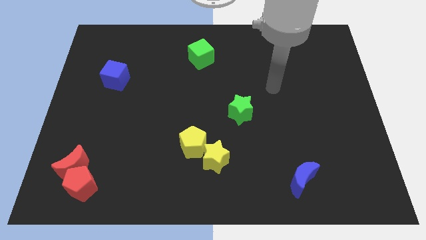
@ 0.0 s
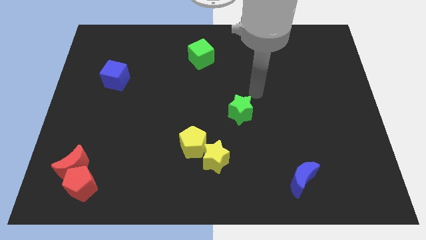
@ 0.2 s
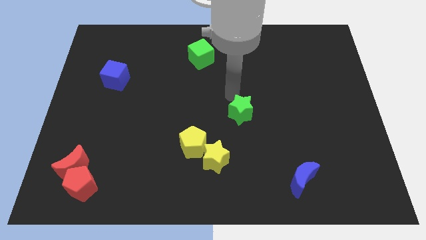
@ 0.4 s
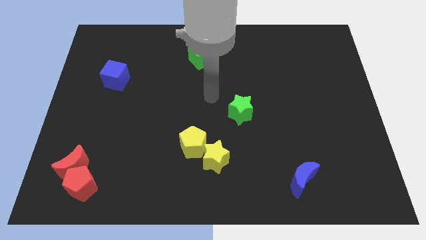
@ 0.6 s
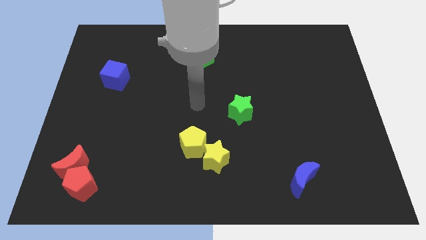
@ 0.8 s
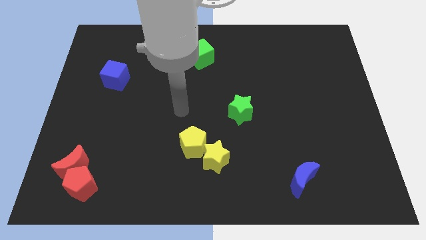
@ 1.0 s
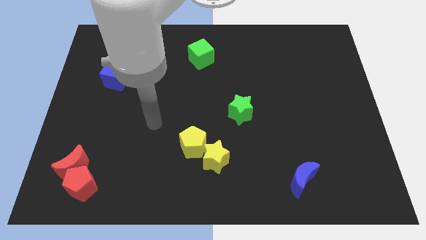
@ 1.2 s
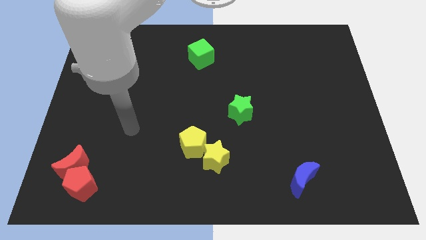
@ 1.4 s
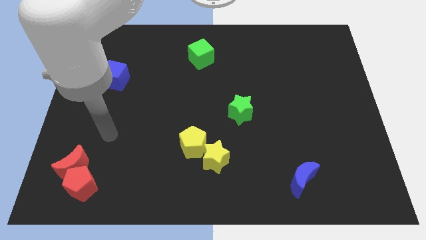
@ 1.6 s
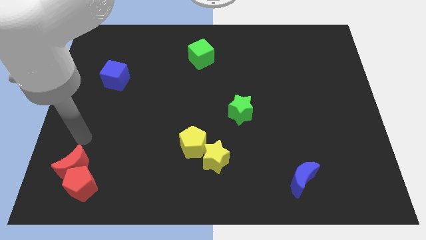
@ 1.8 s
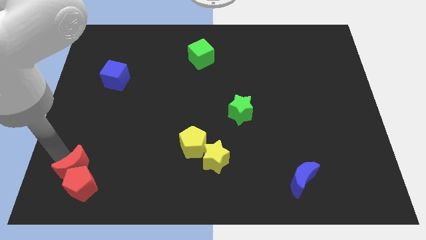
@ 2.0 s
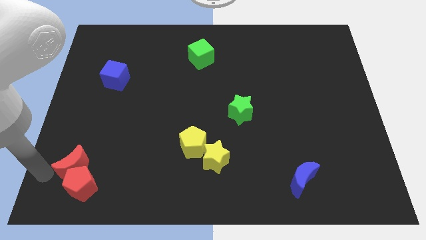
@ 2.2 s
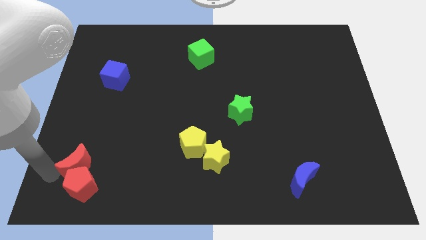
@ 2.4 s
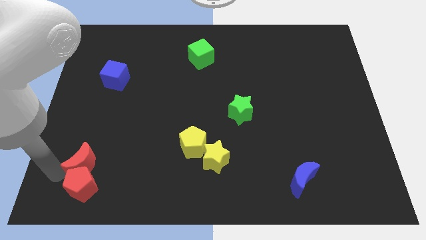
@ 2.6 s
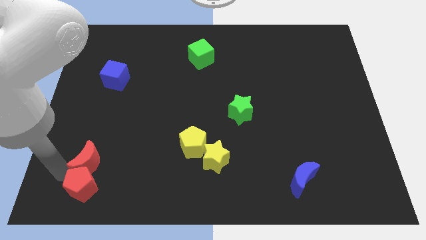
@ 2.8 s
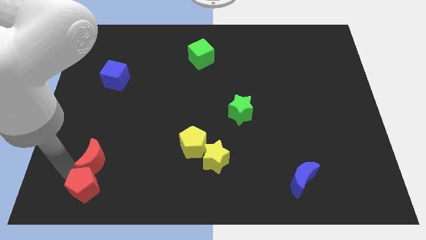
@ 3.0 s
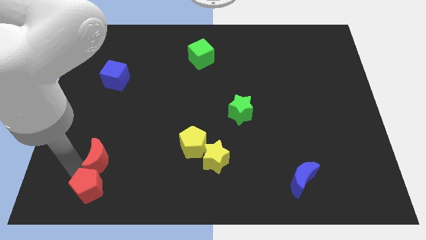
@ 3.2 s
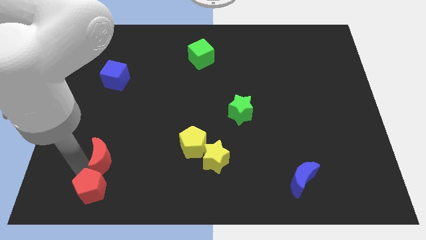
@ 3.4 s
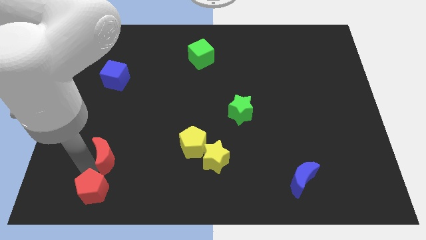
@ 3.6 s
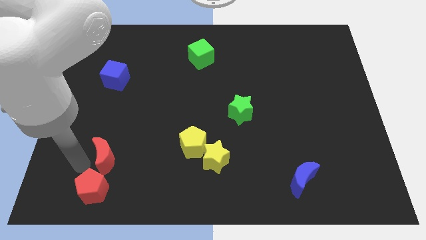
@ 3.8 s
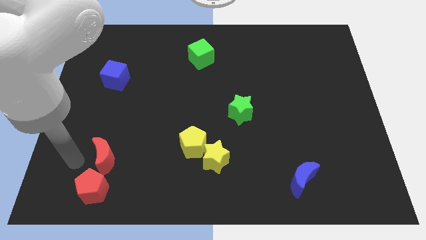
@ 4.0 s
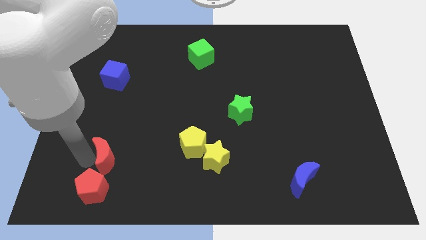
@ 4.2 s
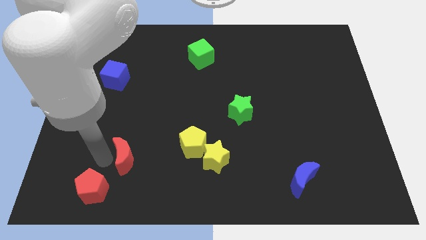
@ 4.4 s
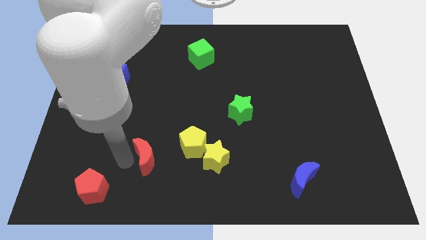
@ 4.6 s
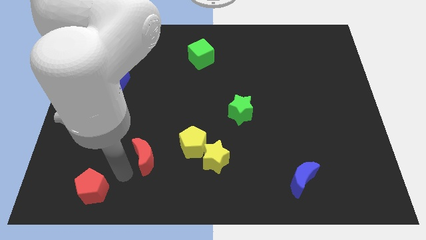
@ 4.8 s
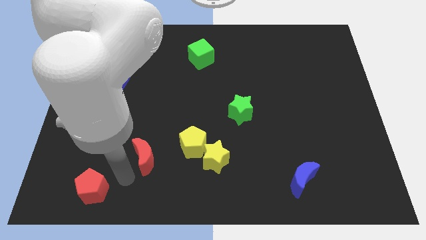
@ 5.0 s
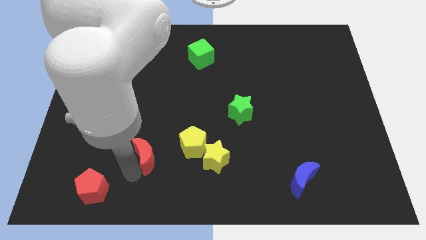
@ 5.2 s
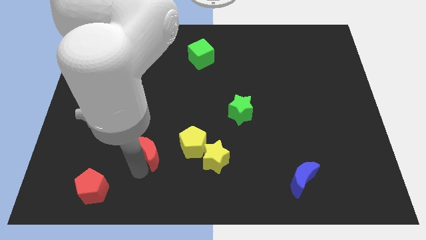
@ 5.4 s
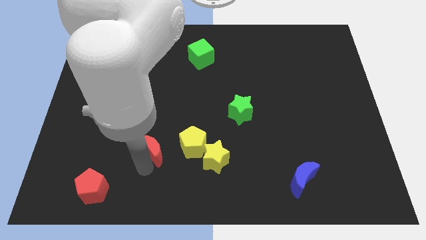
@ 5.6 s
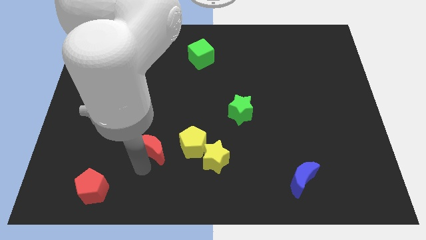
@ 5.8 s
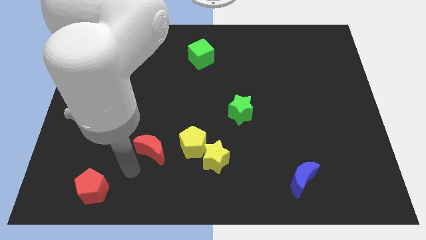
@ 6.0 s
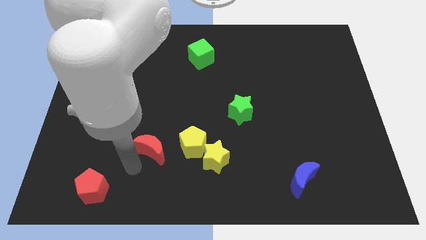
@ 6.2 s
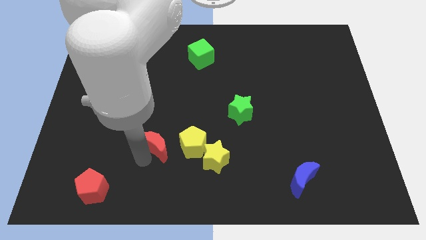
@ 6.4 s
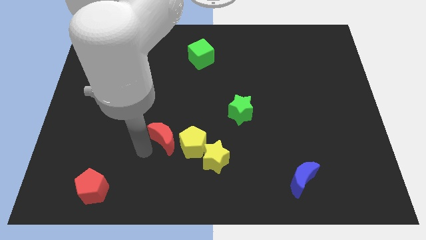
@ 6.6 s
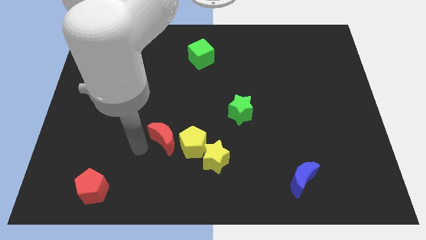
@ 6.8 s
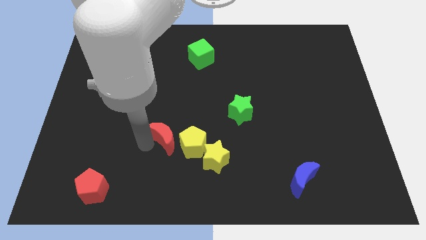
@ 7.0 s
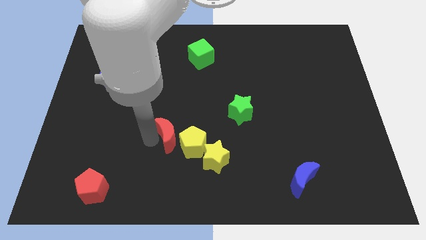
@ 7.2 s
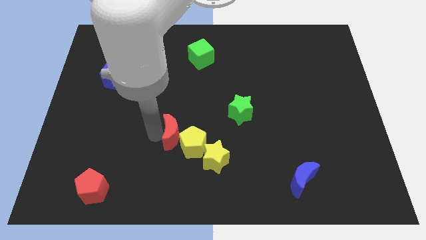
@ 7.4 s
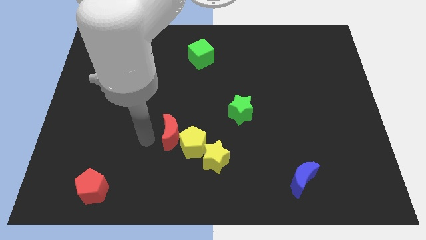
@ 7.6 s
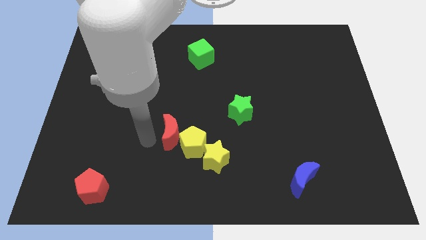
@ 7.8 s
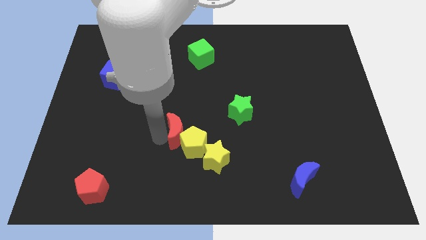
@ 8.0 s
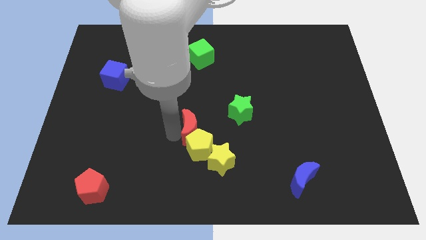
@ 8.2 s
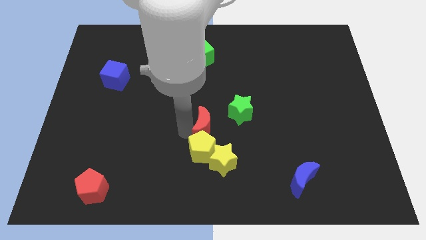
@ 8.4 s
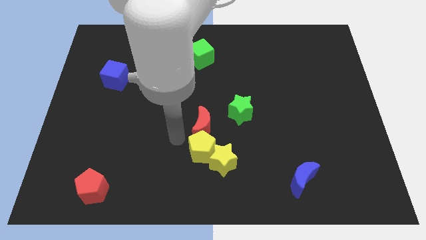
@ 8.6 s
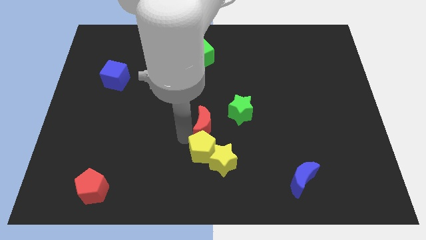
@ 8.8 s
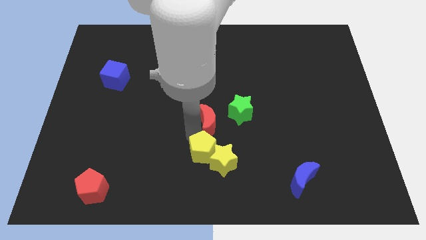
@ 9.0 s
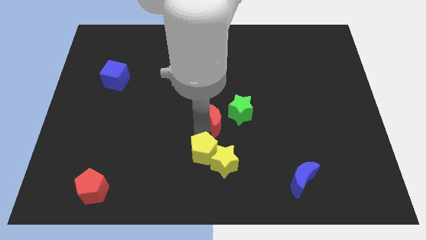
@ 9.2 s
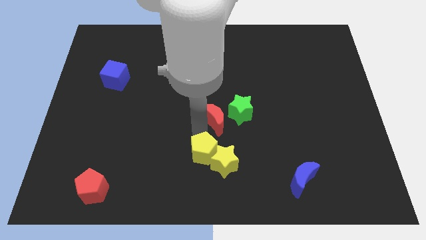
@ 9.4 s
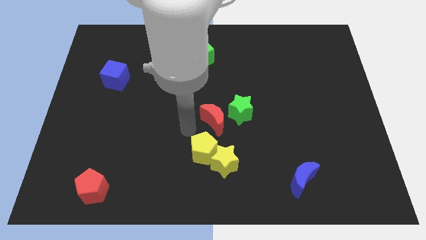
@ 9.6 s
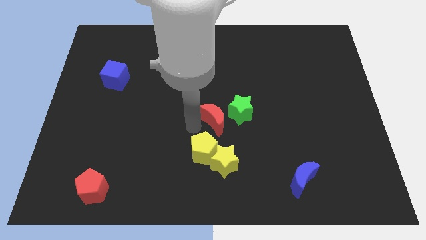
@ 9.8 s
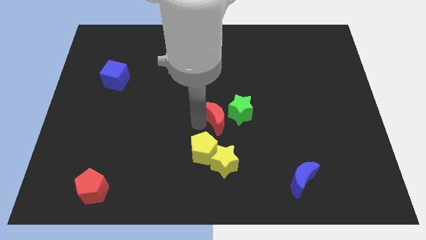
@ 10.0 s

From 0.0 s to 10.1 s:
push the red moon towards the green star

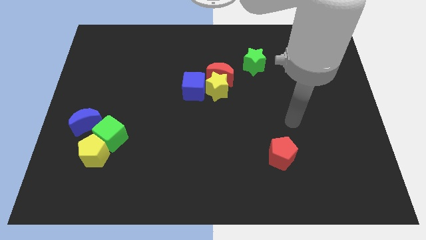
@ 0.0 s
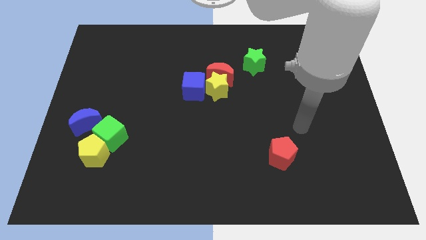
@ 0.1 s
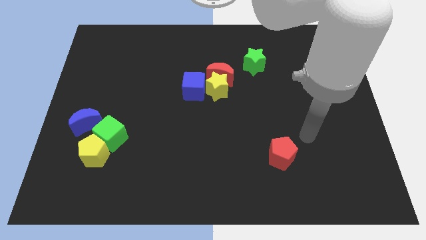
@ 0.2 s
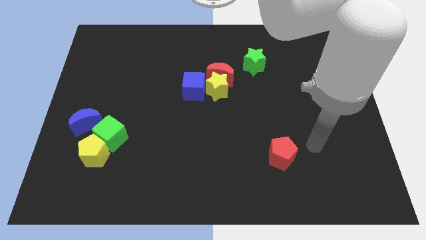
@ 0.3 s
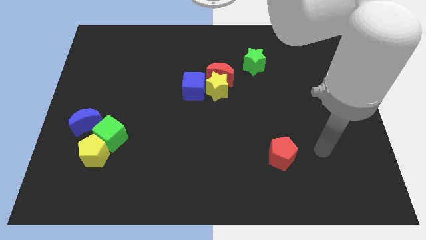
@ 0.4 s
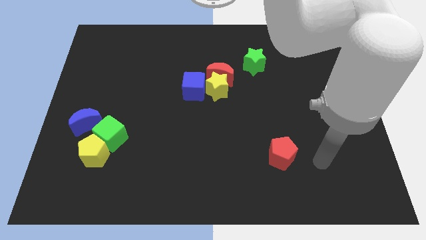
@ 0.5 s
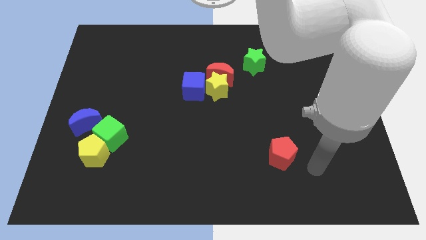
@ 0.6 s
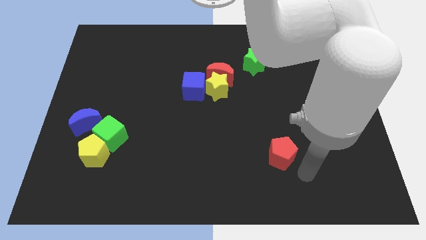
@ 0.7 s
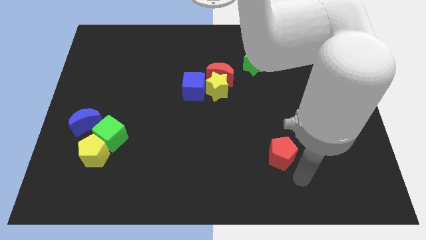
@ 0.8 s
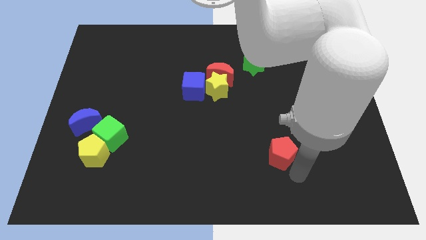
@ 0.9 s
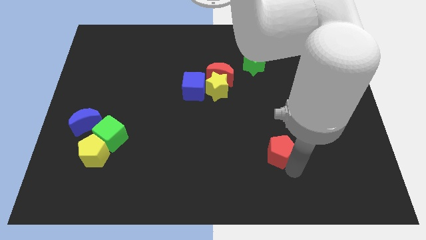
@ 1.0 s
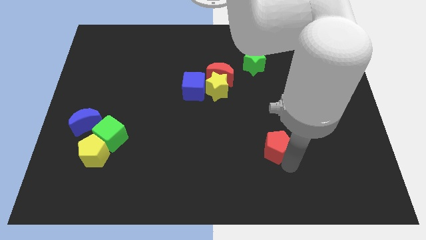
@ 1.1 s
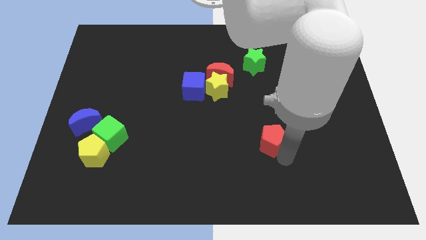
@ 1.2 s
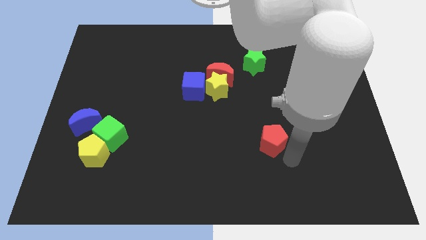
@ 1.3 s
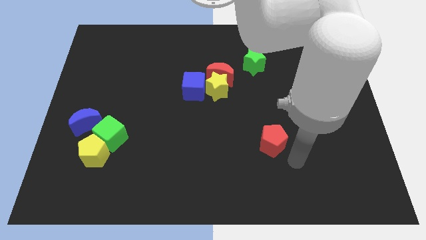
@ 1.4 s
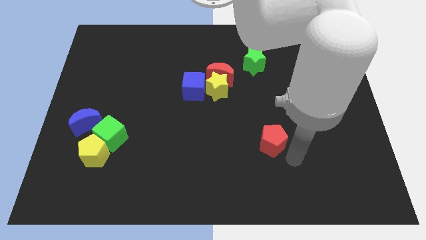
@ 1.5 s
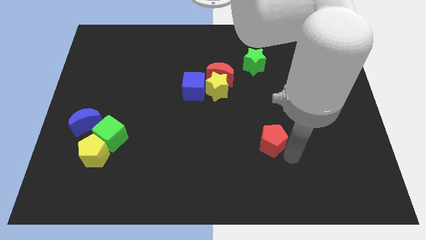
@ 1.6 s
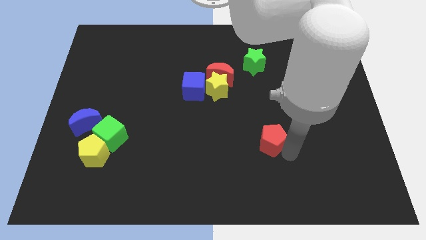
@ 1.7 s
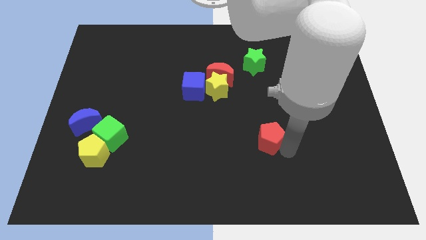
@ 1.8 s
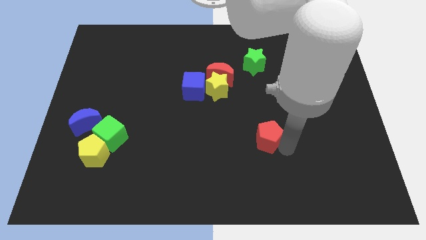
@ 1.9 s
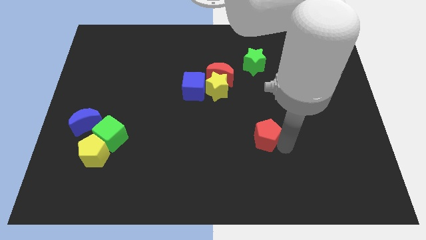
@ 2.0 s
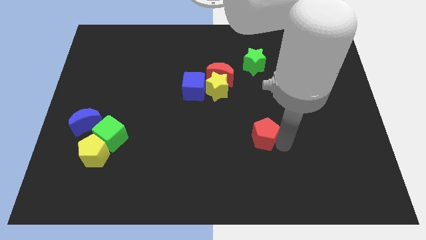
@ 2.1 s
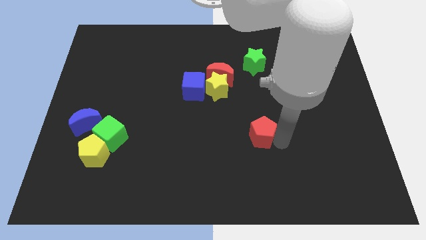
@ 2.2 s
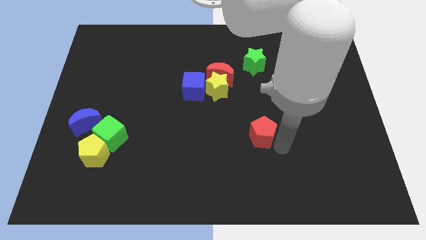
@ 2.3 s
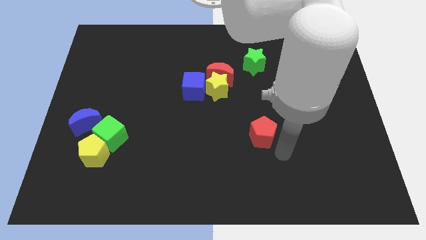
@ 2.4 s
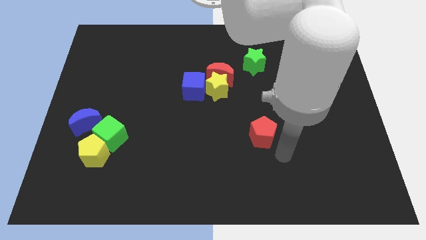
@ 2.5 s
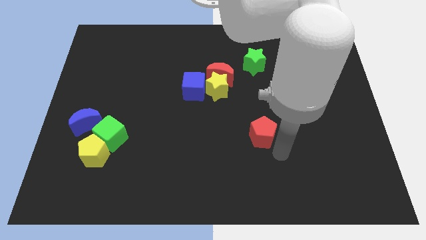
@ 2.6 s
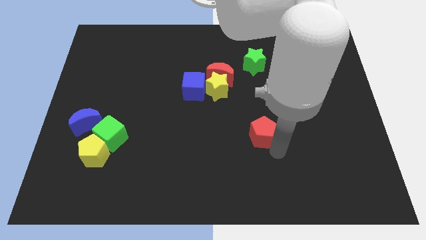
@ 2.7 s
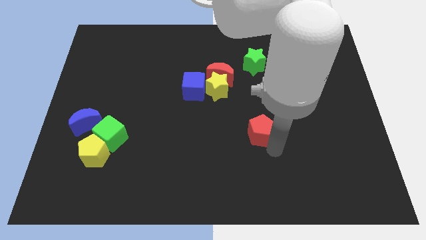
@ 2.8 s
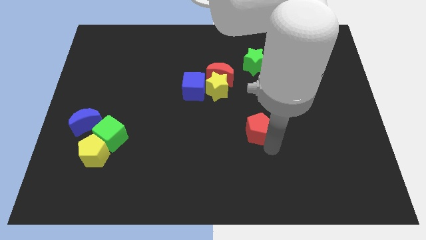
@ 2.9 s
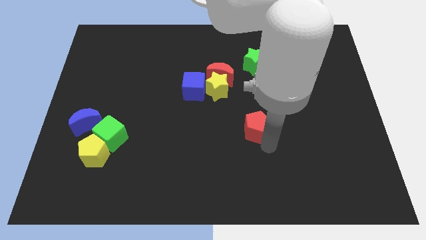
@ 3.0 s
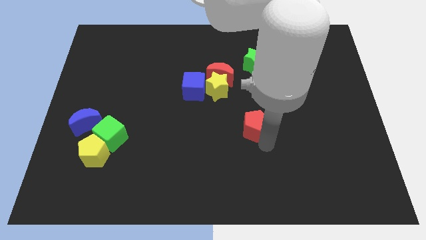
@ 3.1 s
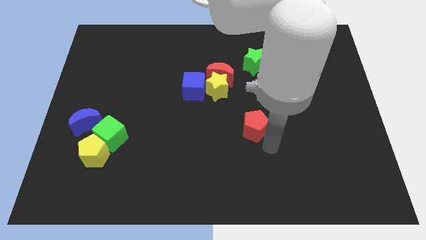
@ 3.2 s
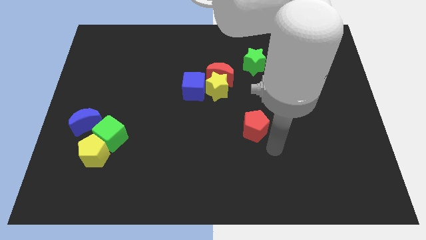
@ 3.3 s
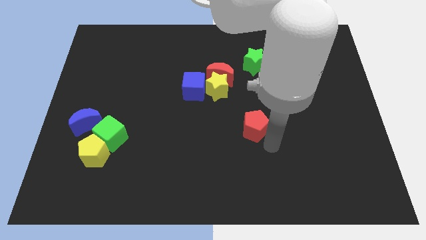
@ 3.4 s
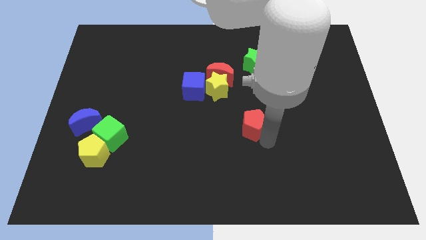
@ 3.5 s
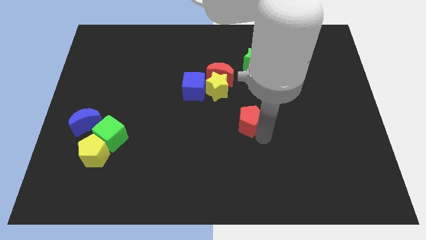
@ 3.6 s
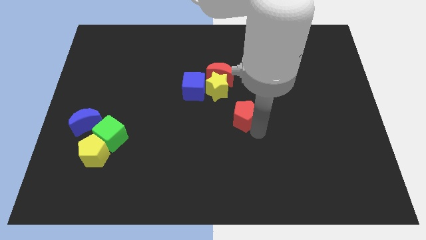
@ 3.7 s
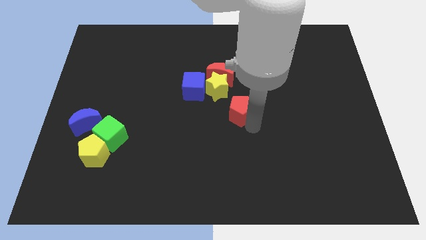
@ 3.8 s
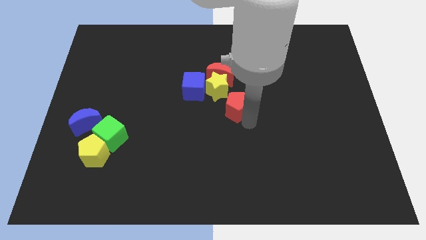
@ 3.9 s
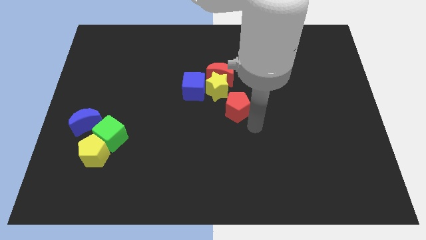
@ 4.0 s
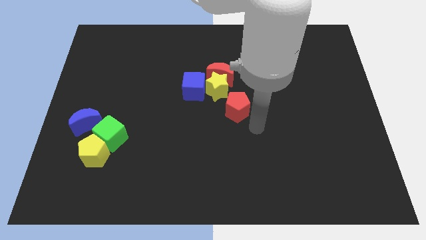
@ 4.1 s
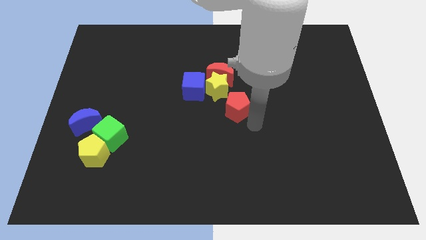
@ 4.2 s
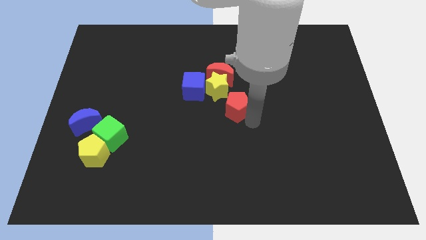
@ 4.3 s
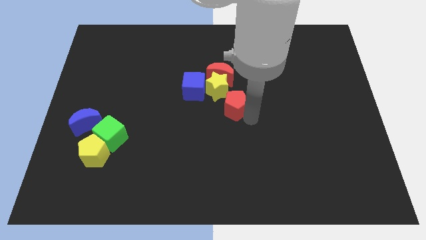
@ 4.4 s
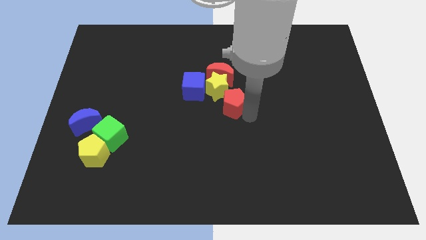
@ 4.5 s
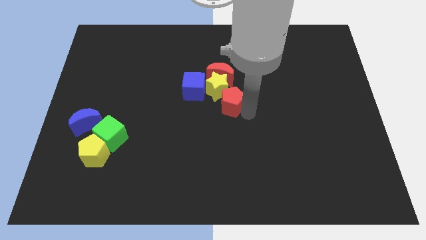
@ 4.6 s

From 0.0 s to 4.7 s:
slide the red pentagon next to the yellow star
